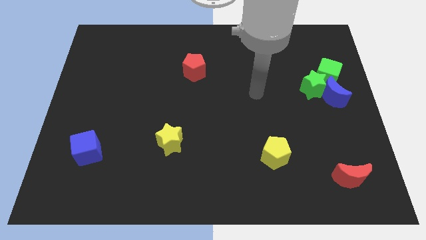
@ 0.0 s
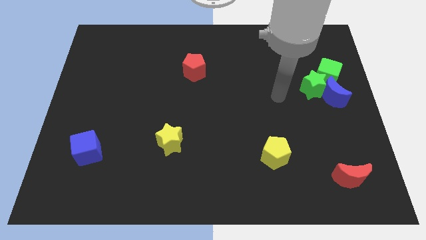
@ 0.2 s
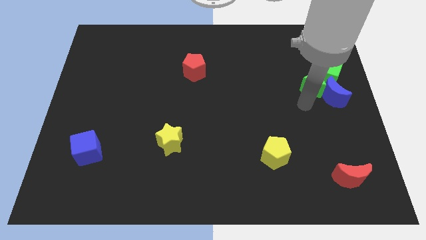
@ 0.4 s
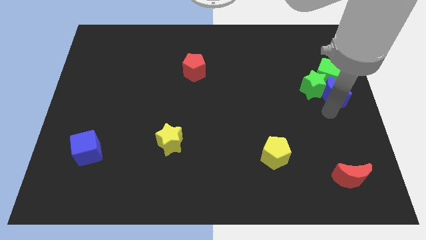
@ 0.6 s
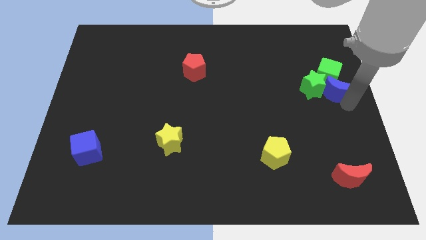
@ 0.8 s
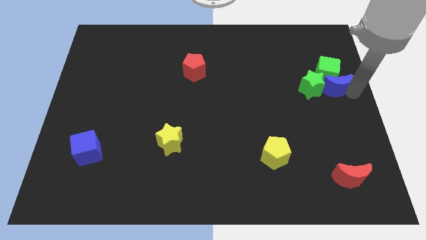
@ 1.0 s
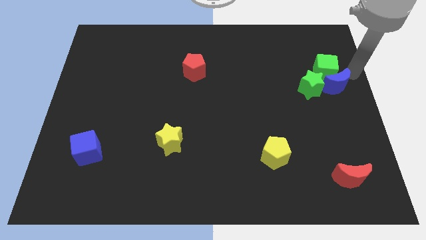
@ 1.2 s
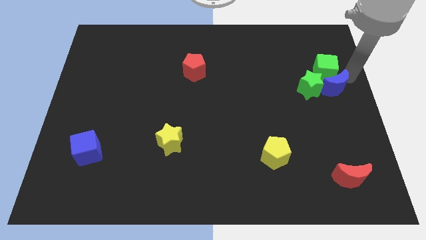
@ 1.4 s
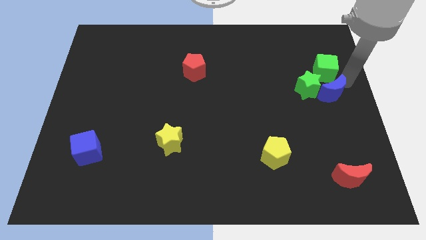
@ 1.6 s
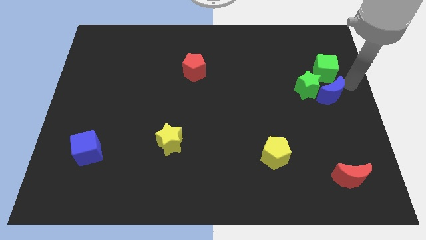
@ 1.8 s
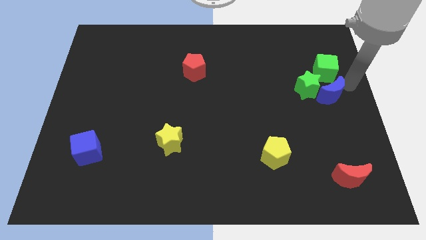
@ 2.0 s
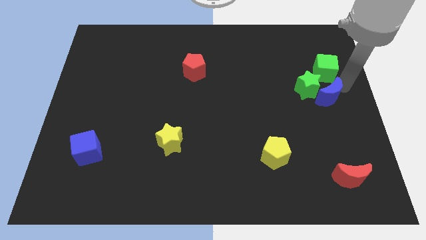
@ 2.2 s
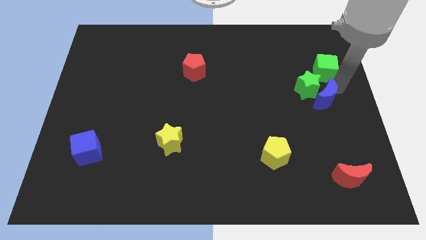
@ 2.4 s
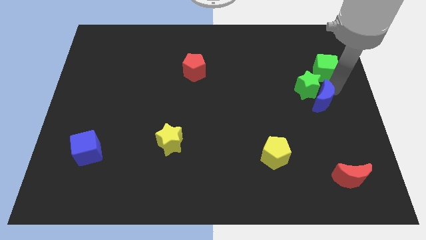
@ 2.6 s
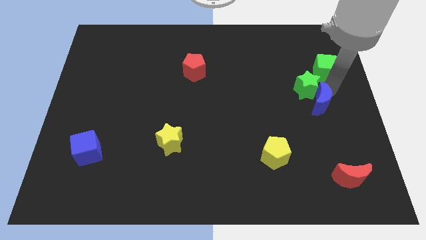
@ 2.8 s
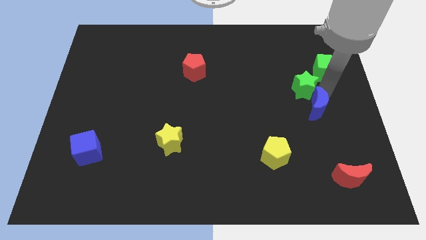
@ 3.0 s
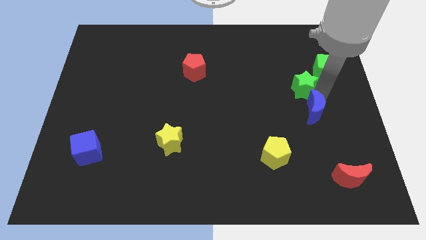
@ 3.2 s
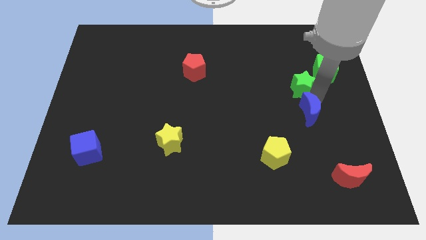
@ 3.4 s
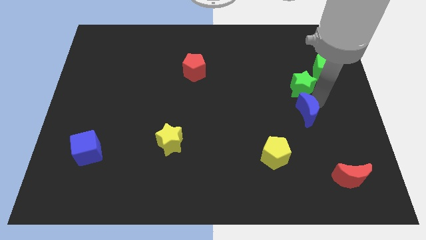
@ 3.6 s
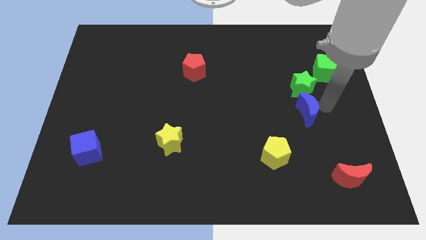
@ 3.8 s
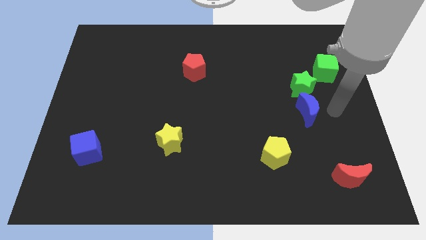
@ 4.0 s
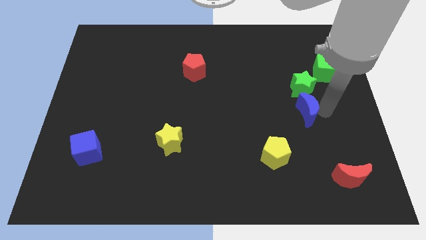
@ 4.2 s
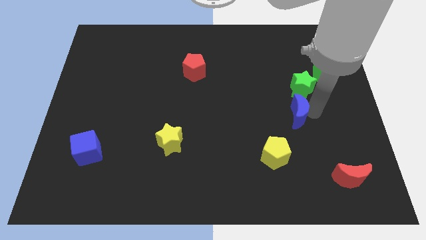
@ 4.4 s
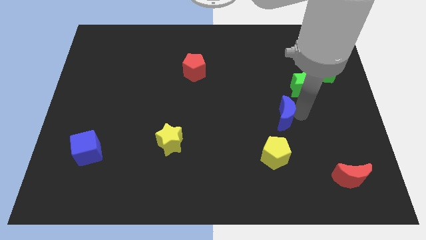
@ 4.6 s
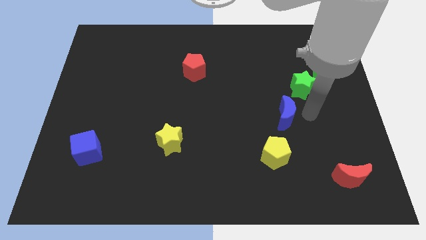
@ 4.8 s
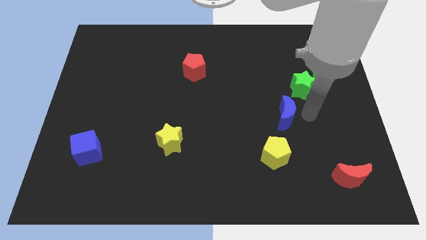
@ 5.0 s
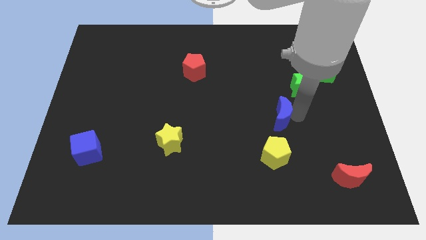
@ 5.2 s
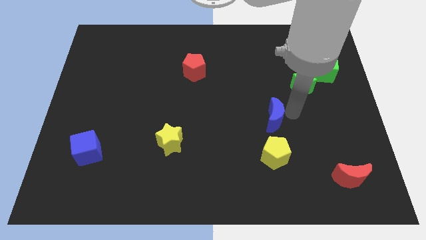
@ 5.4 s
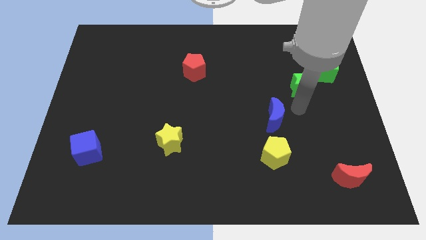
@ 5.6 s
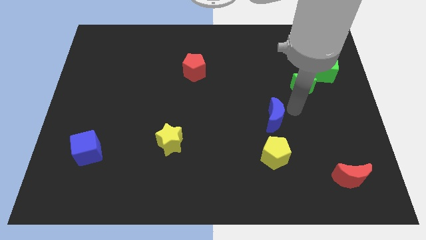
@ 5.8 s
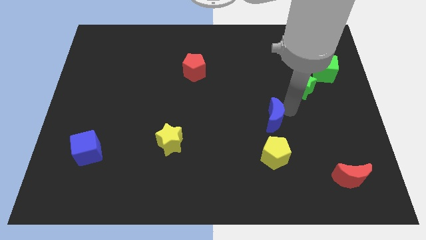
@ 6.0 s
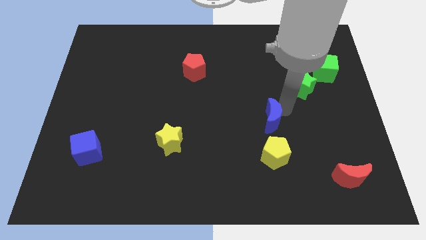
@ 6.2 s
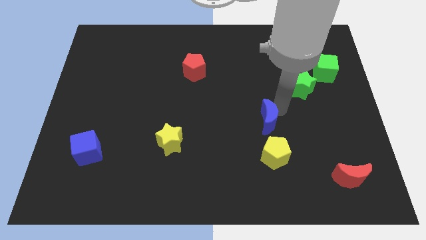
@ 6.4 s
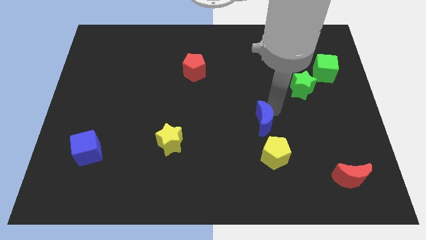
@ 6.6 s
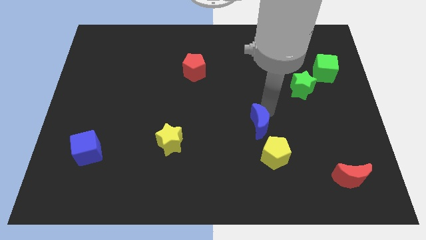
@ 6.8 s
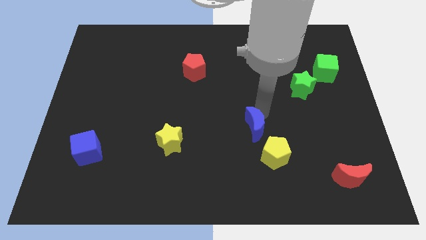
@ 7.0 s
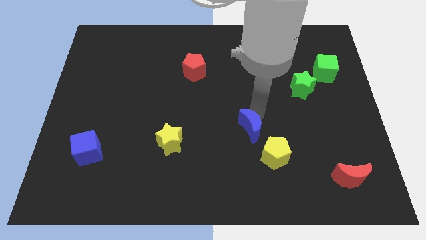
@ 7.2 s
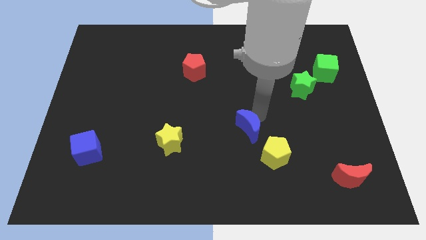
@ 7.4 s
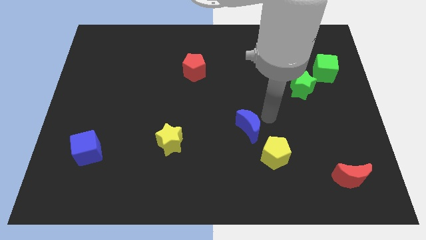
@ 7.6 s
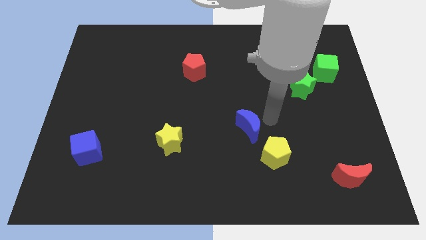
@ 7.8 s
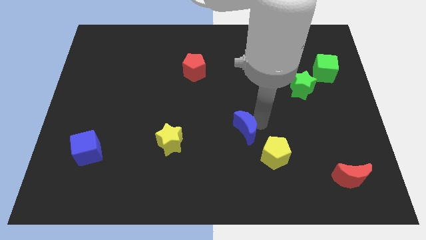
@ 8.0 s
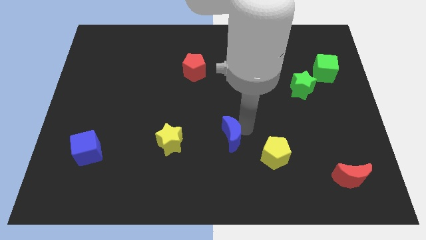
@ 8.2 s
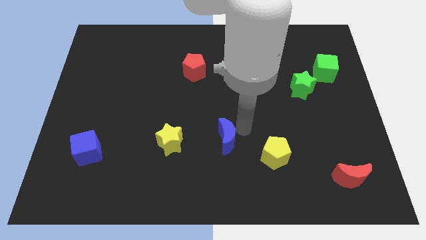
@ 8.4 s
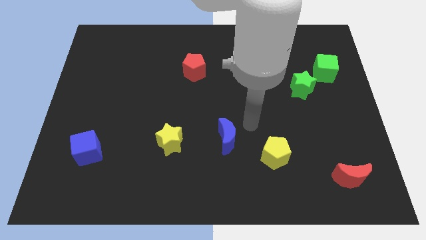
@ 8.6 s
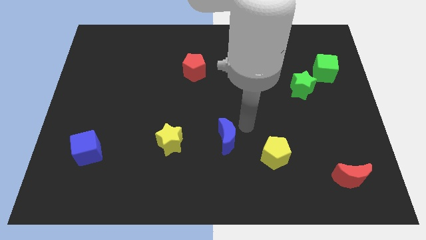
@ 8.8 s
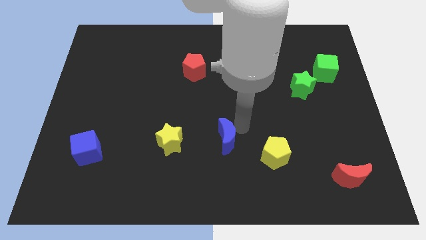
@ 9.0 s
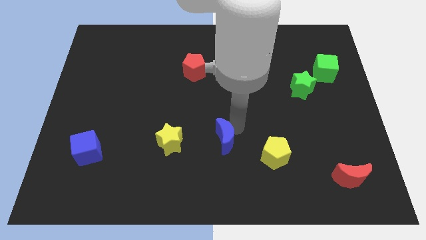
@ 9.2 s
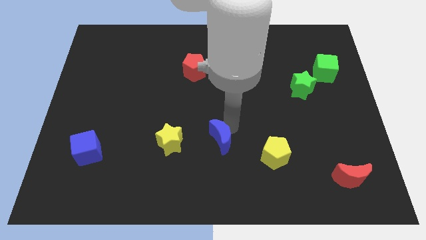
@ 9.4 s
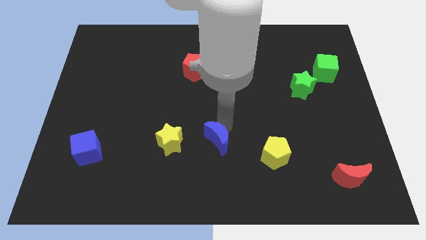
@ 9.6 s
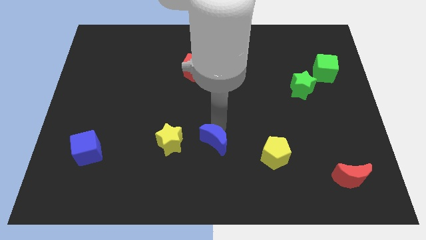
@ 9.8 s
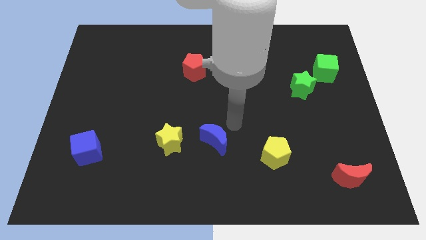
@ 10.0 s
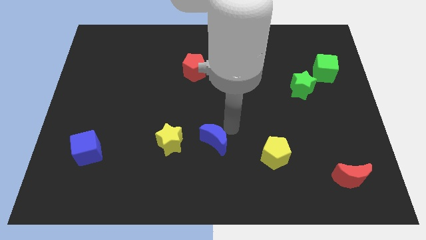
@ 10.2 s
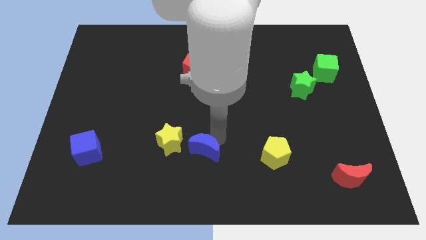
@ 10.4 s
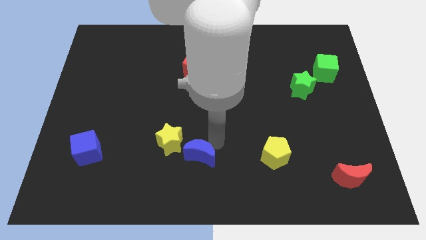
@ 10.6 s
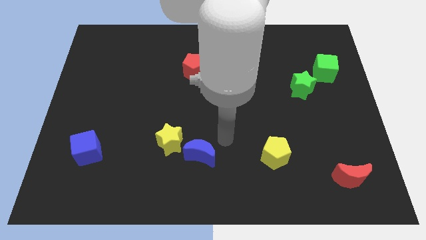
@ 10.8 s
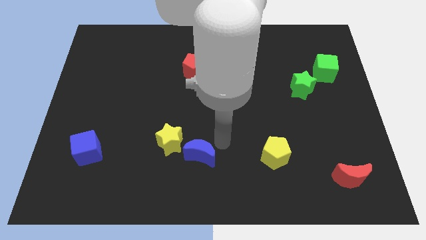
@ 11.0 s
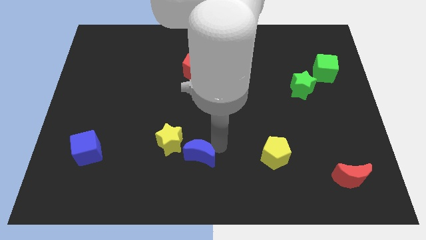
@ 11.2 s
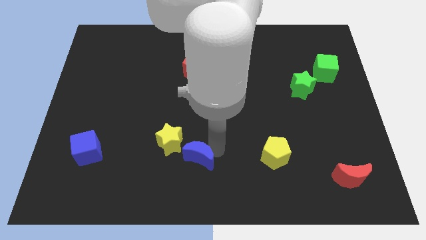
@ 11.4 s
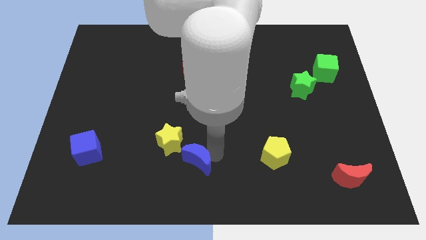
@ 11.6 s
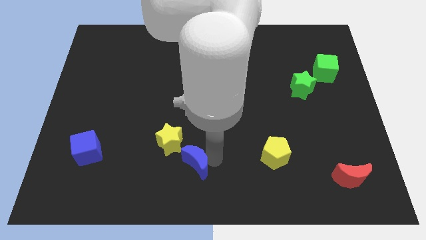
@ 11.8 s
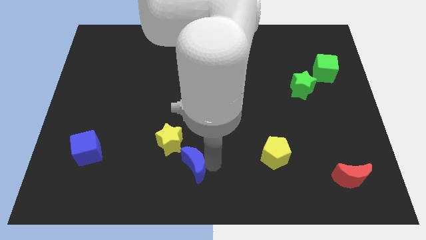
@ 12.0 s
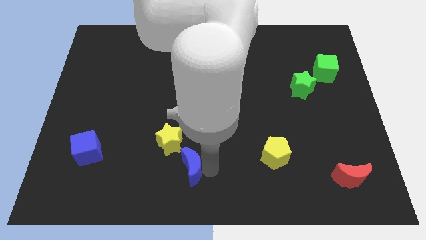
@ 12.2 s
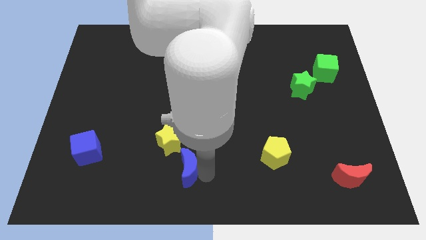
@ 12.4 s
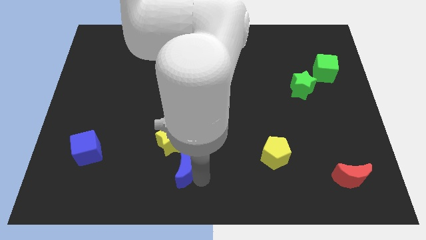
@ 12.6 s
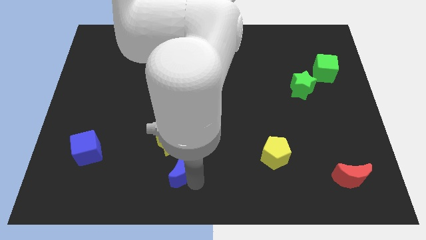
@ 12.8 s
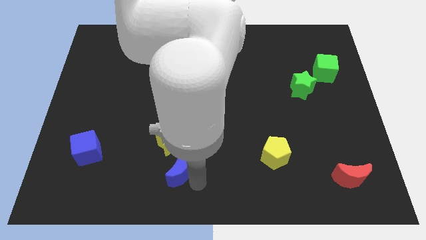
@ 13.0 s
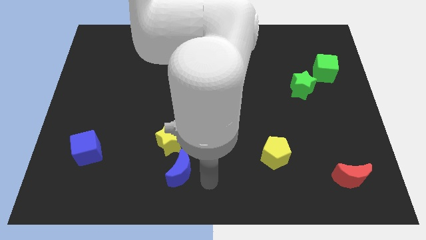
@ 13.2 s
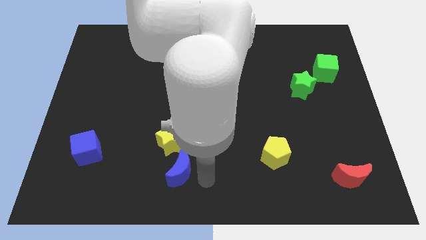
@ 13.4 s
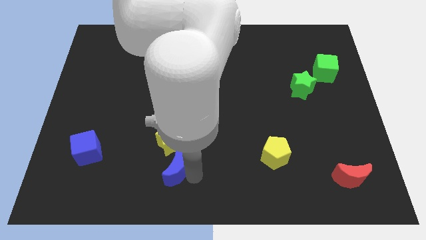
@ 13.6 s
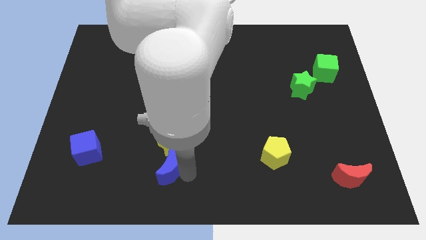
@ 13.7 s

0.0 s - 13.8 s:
push the blue moon to the bottom left side of the yellow star
